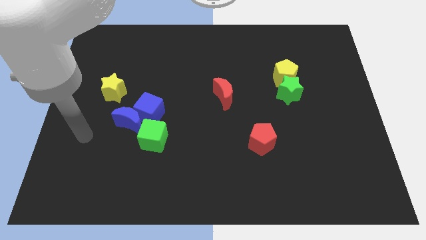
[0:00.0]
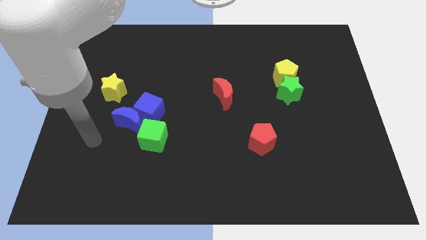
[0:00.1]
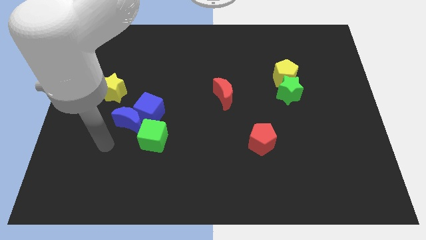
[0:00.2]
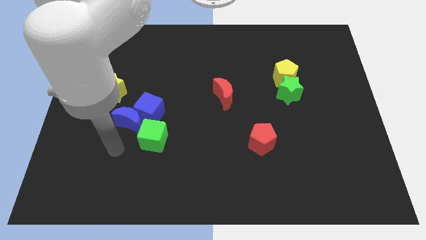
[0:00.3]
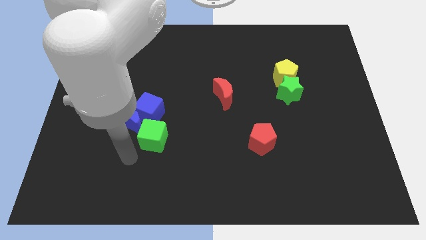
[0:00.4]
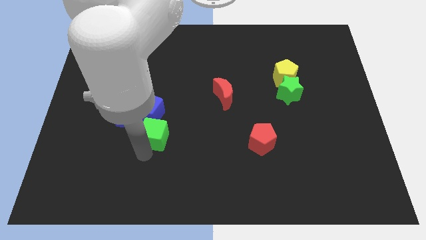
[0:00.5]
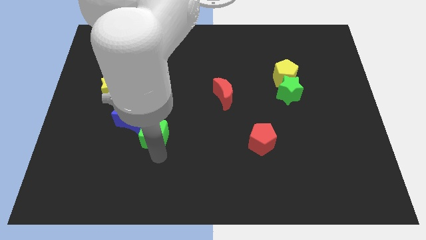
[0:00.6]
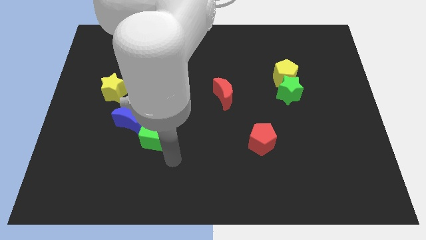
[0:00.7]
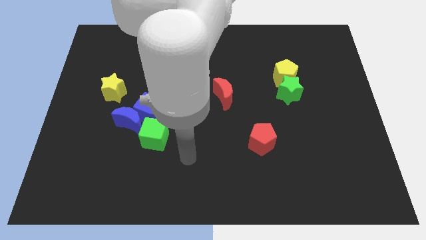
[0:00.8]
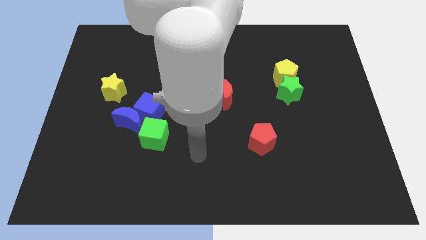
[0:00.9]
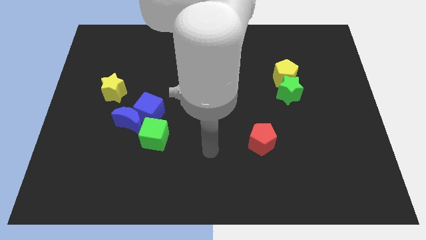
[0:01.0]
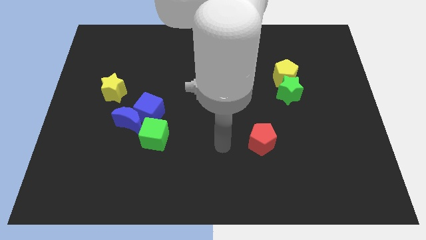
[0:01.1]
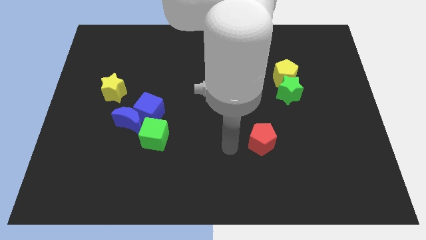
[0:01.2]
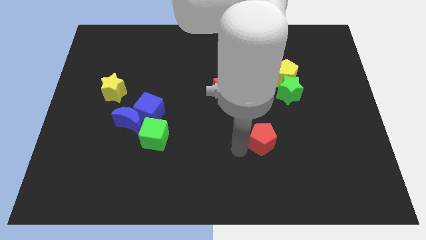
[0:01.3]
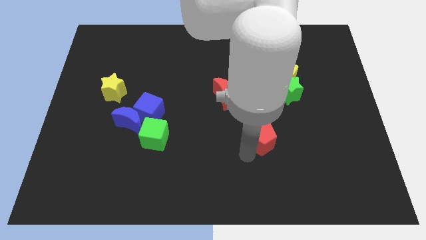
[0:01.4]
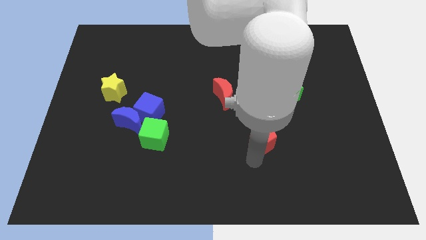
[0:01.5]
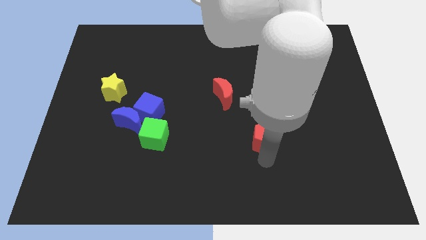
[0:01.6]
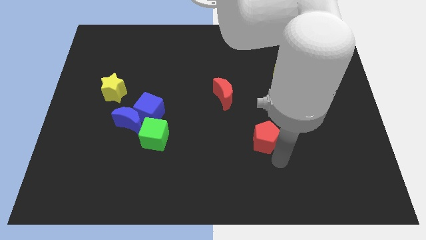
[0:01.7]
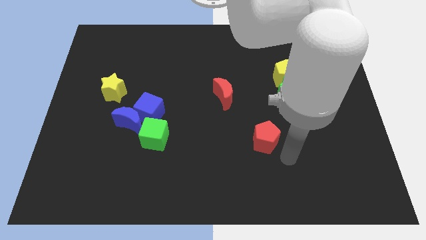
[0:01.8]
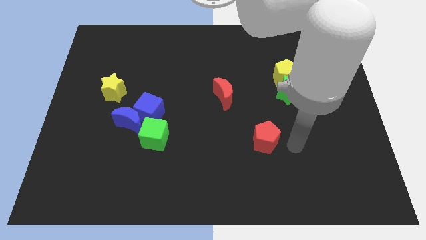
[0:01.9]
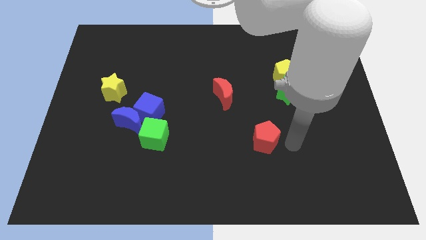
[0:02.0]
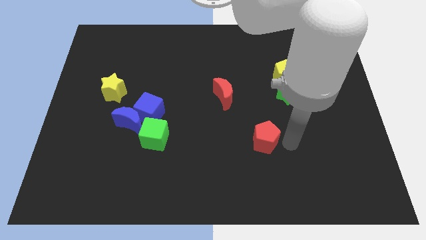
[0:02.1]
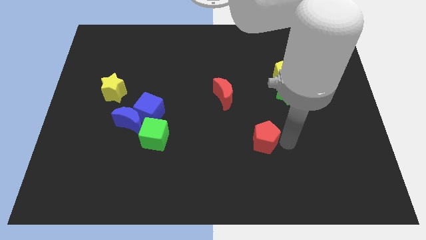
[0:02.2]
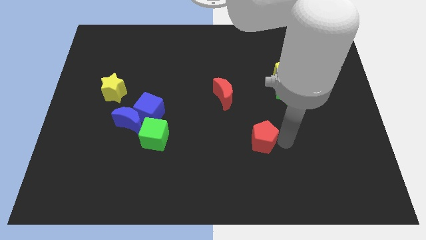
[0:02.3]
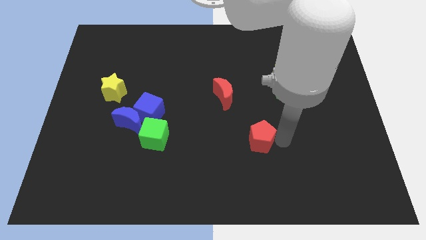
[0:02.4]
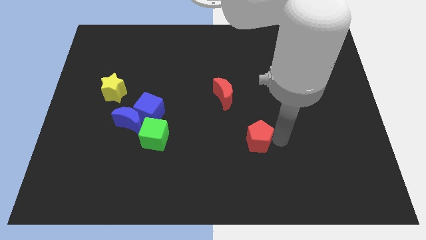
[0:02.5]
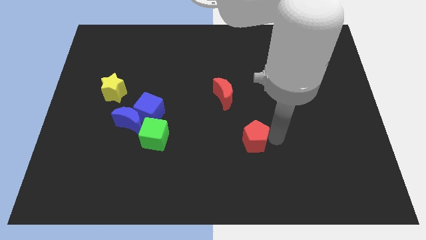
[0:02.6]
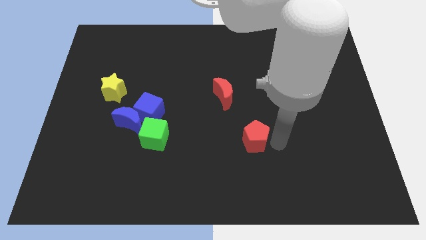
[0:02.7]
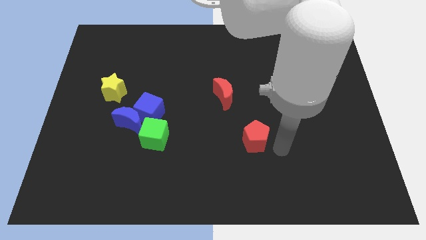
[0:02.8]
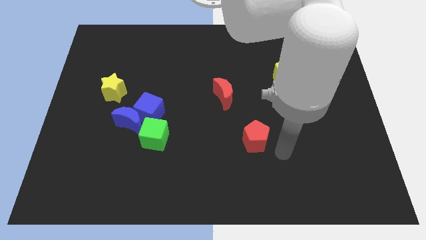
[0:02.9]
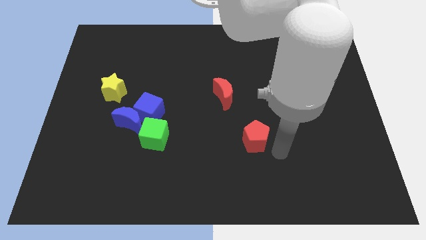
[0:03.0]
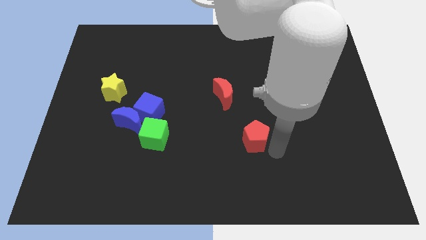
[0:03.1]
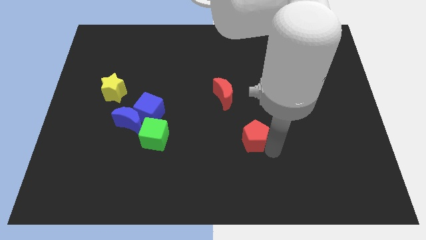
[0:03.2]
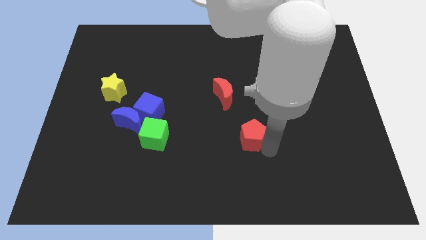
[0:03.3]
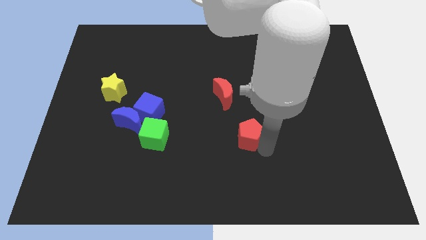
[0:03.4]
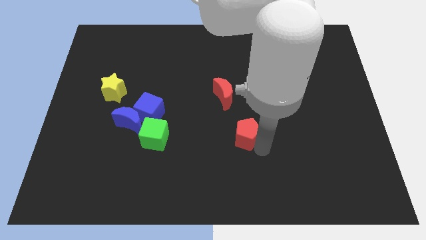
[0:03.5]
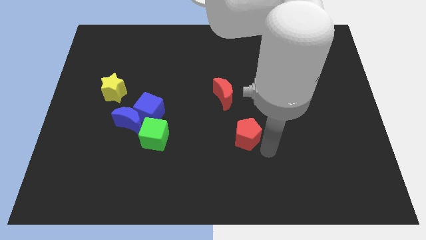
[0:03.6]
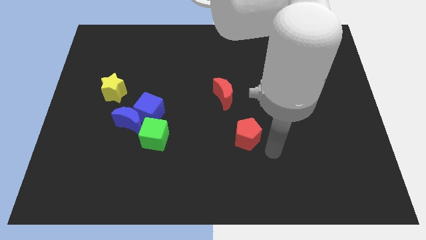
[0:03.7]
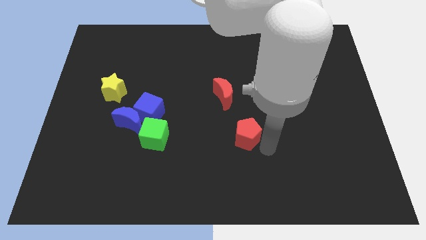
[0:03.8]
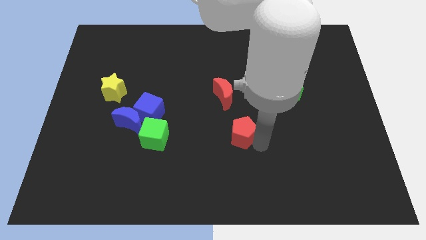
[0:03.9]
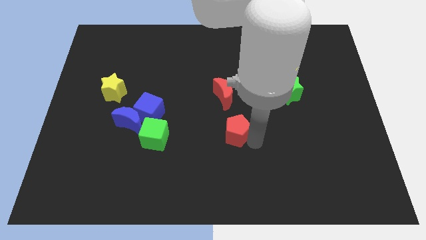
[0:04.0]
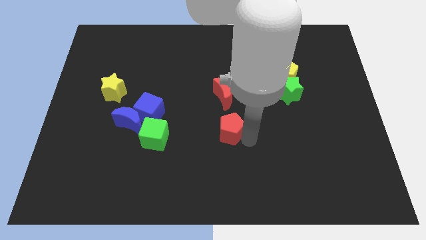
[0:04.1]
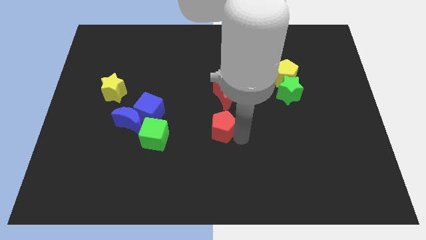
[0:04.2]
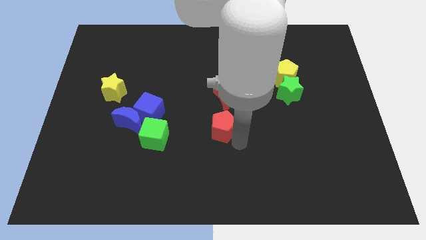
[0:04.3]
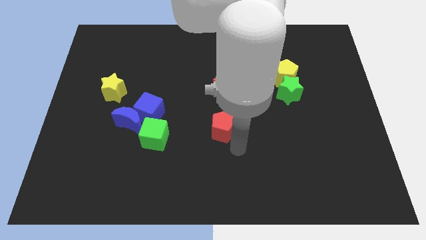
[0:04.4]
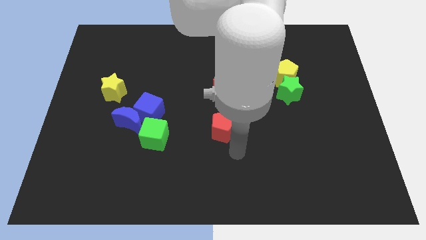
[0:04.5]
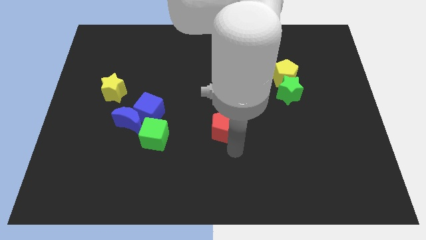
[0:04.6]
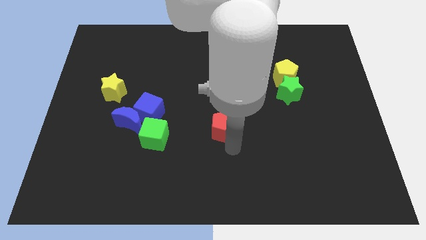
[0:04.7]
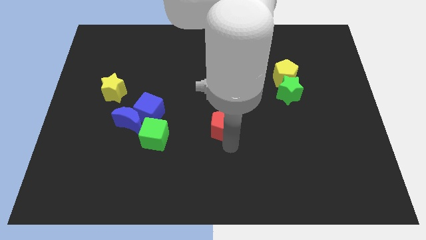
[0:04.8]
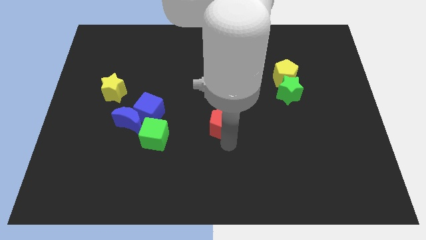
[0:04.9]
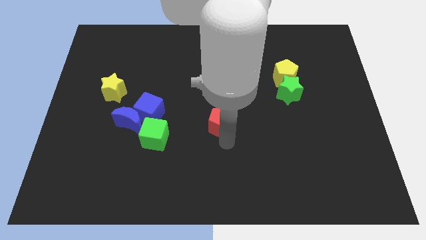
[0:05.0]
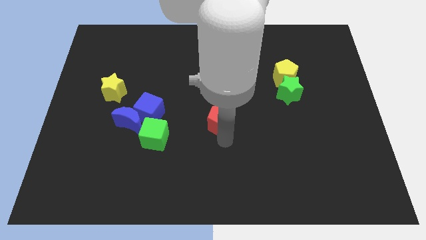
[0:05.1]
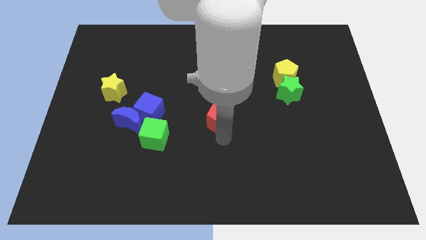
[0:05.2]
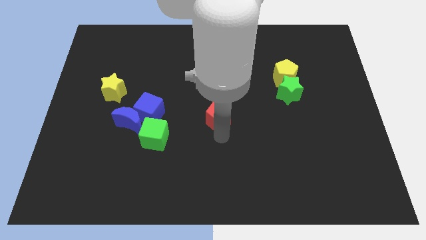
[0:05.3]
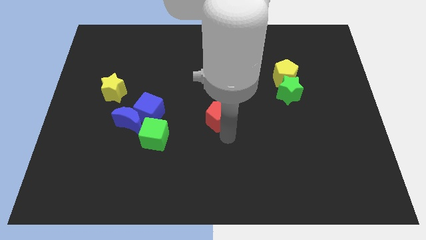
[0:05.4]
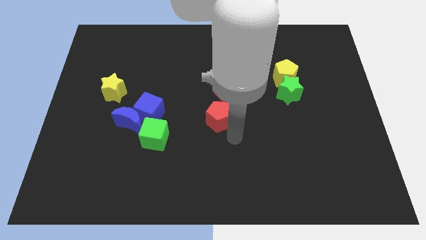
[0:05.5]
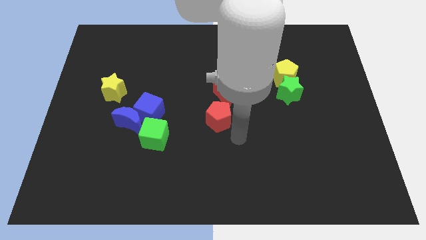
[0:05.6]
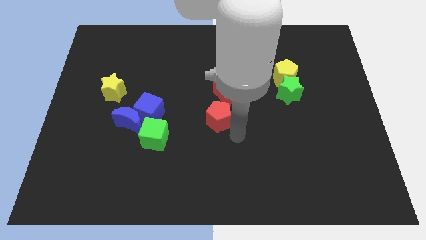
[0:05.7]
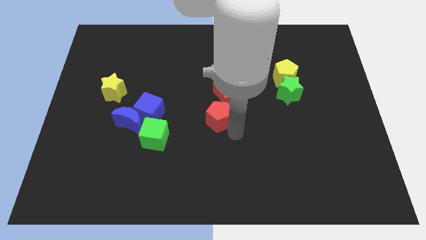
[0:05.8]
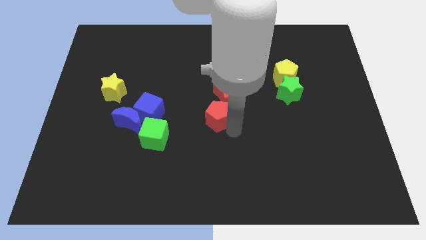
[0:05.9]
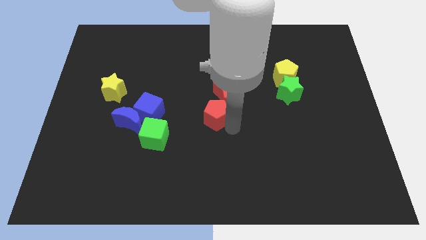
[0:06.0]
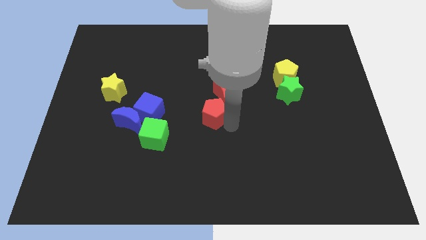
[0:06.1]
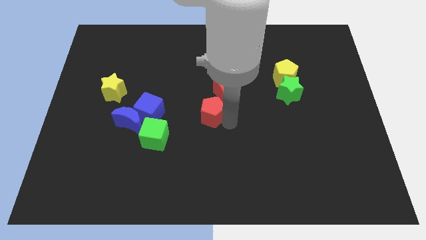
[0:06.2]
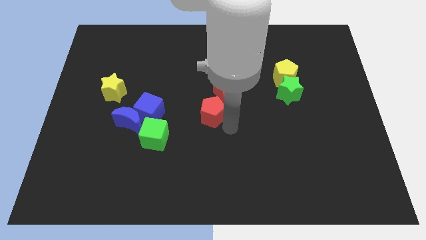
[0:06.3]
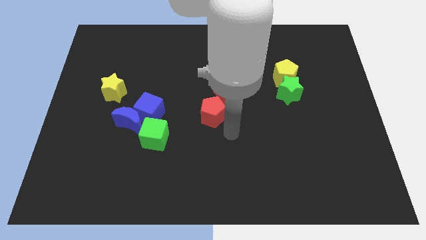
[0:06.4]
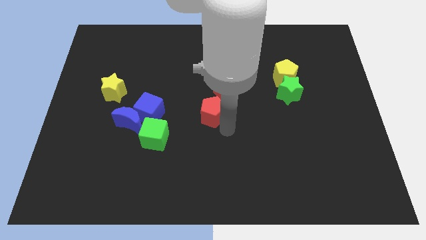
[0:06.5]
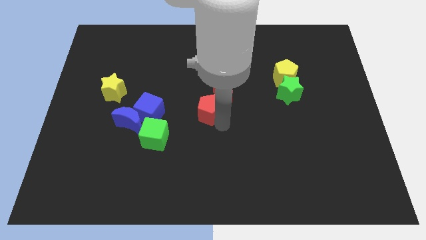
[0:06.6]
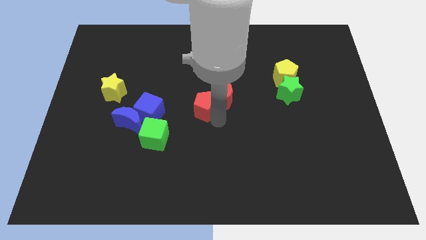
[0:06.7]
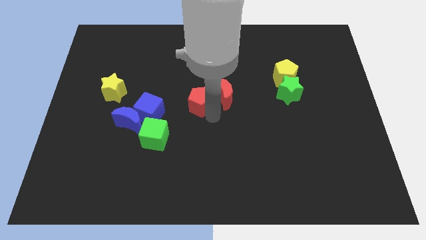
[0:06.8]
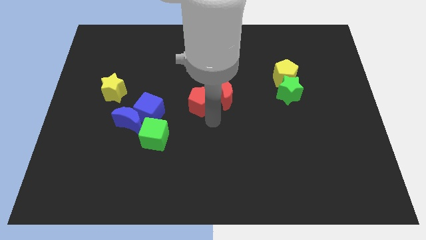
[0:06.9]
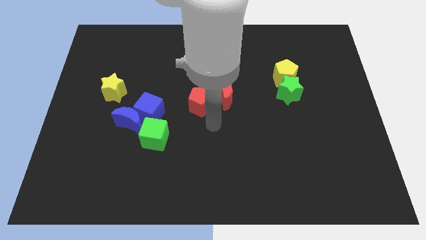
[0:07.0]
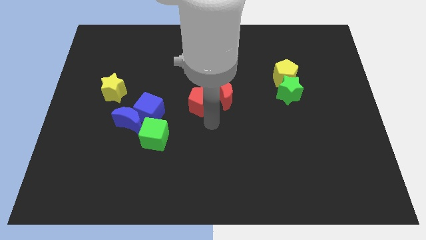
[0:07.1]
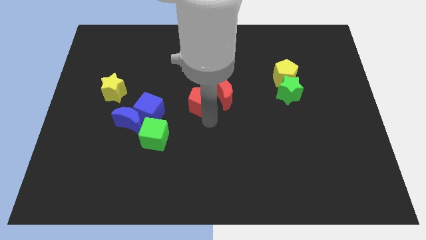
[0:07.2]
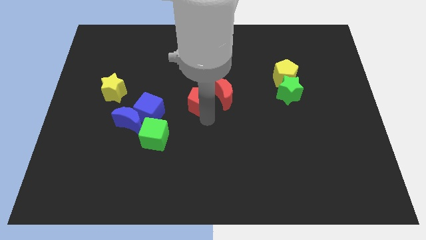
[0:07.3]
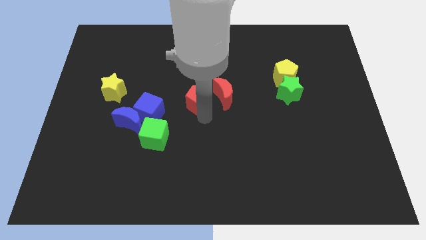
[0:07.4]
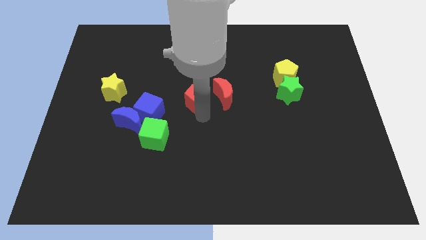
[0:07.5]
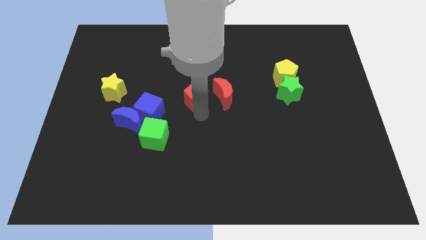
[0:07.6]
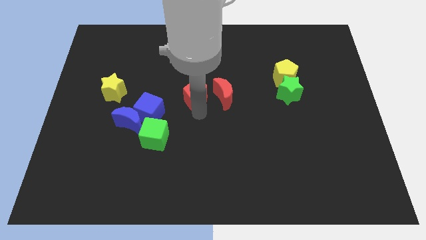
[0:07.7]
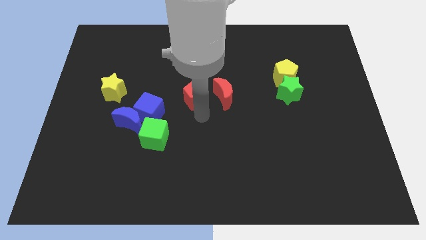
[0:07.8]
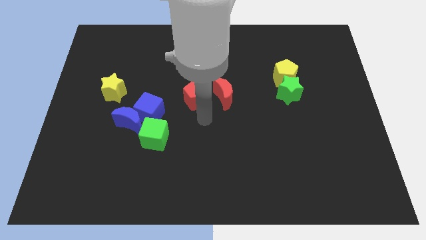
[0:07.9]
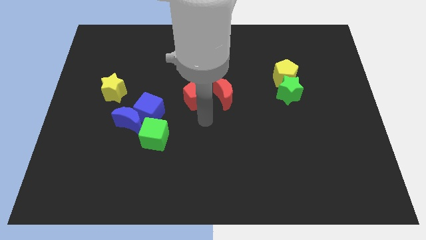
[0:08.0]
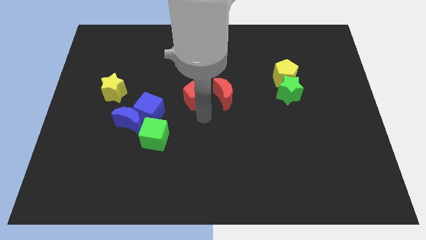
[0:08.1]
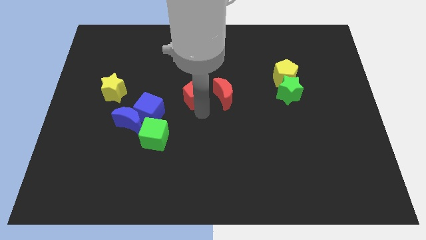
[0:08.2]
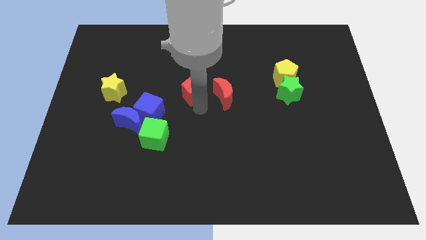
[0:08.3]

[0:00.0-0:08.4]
slide the red pentagon up and left diagonally
